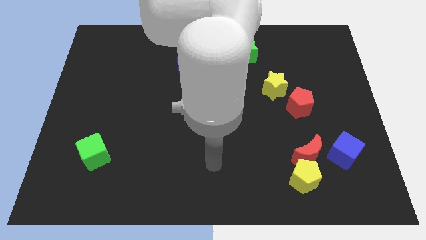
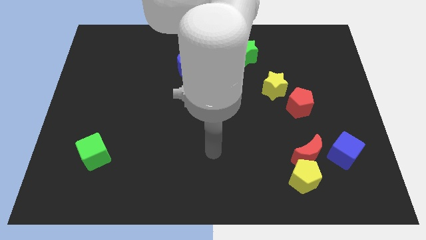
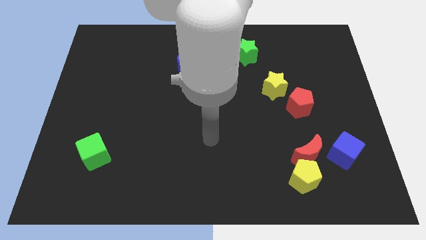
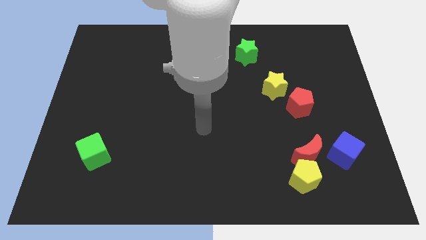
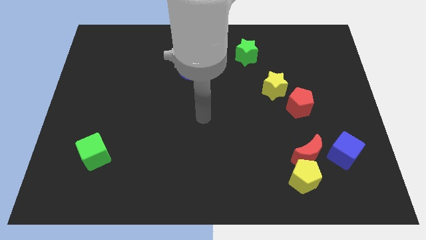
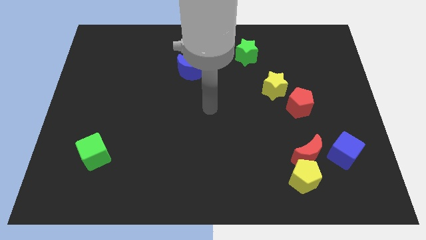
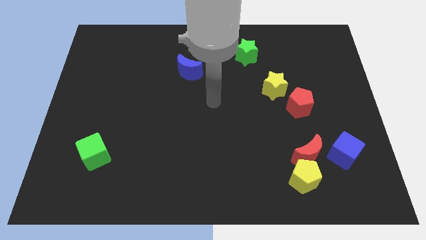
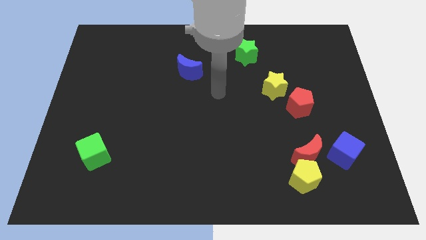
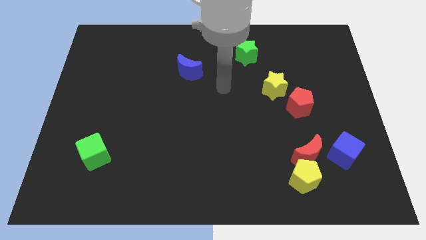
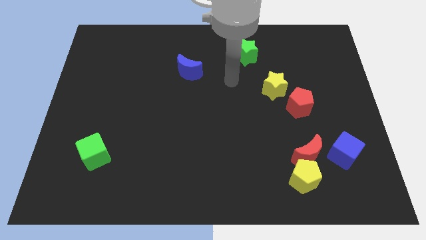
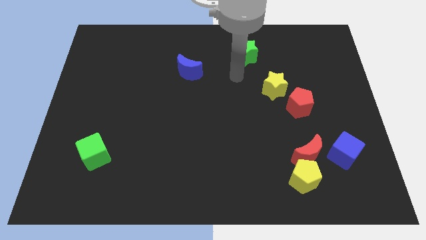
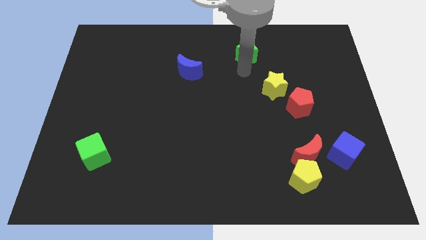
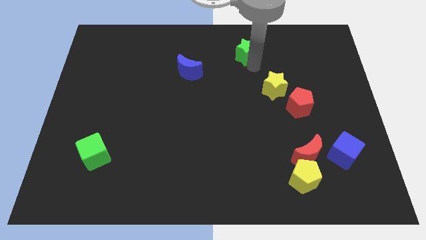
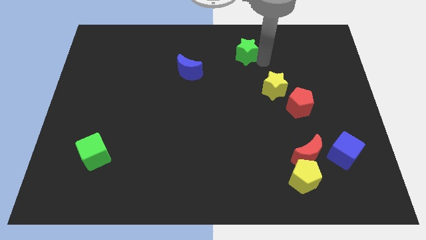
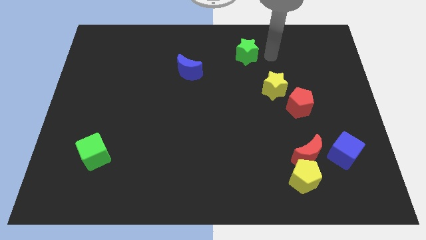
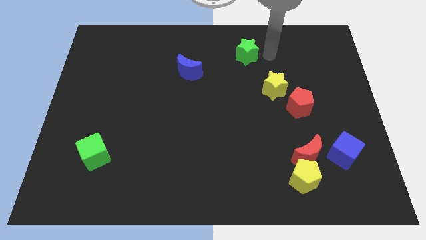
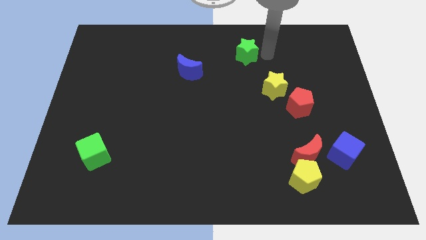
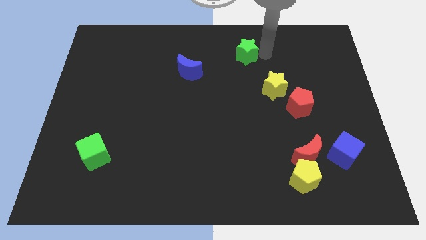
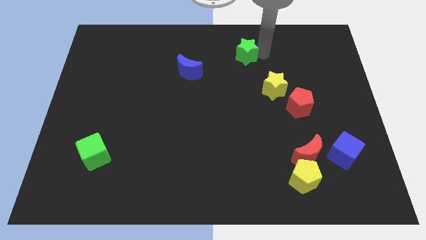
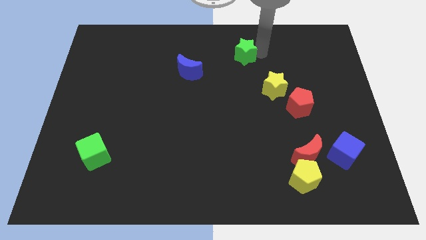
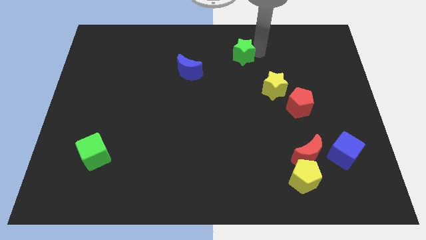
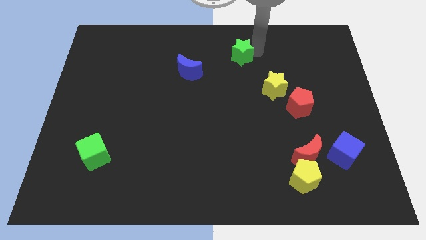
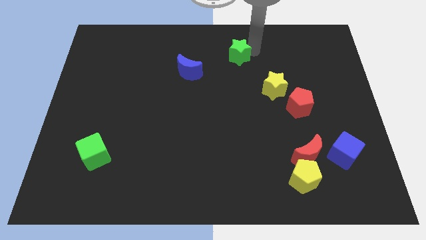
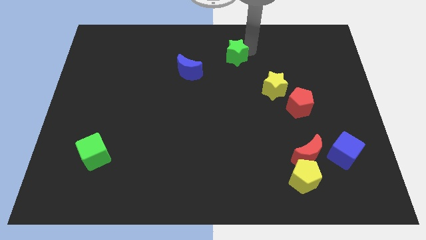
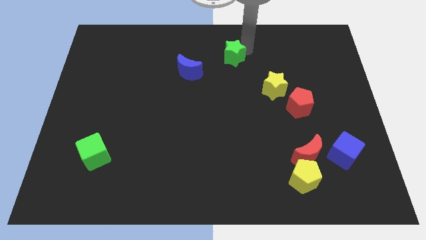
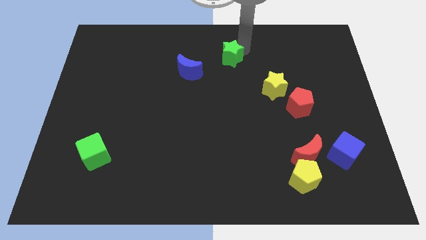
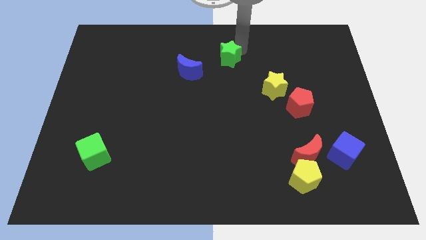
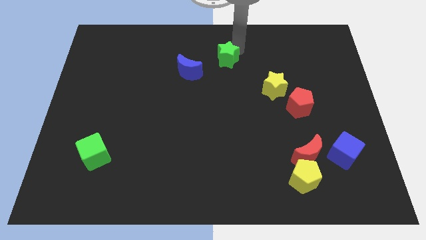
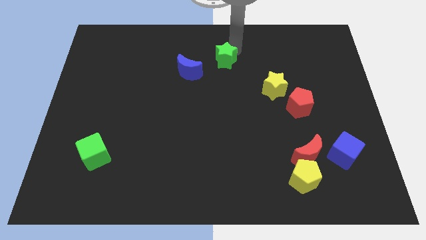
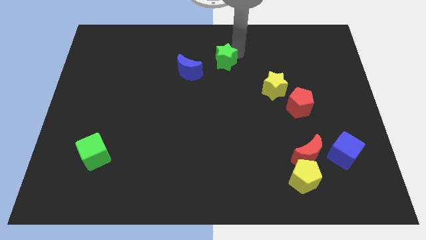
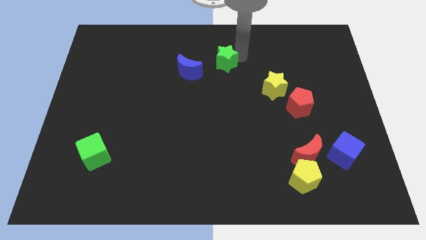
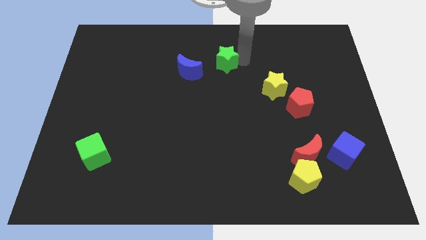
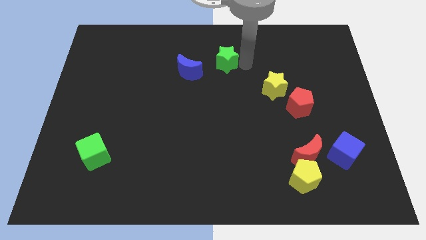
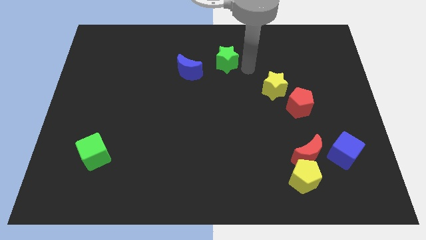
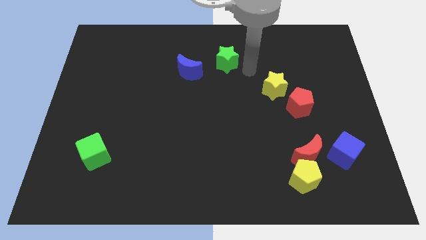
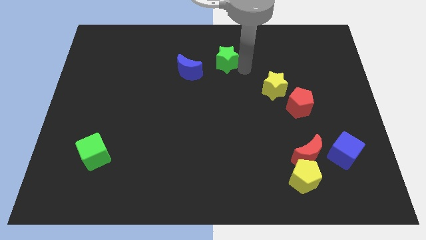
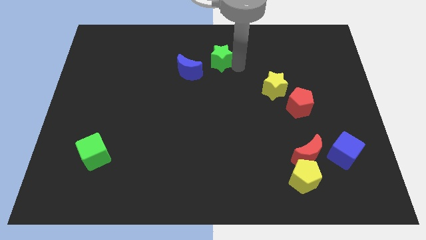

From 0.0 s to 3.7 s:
move the green star a bit to the left

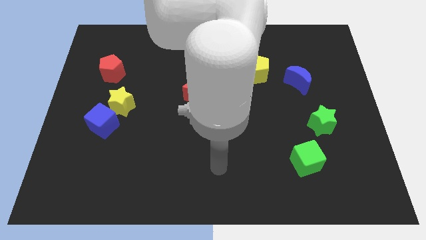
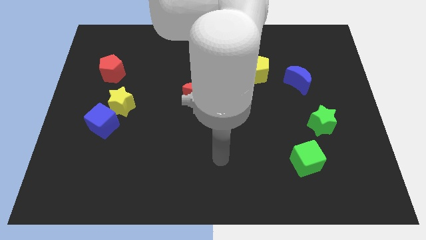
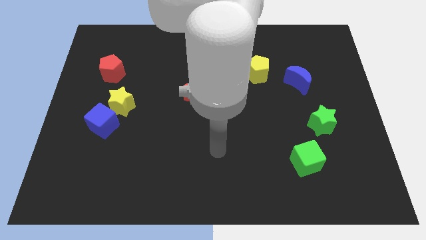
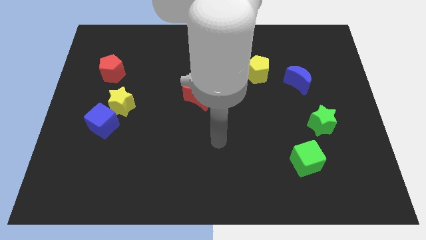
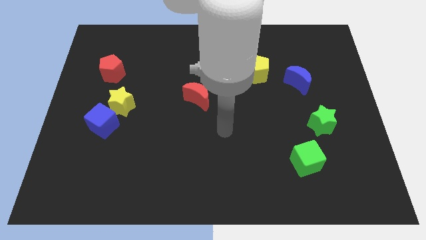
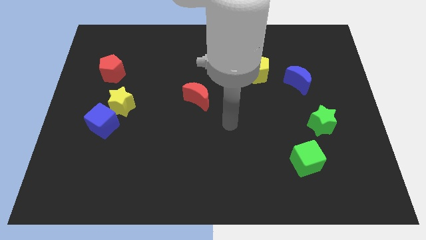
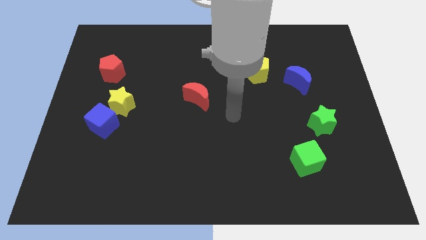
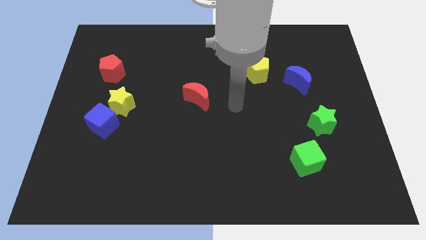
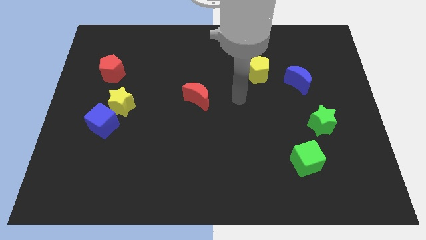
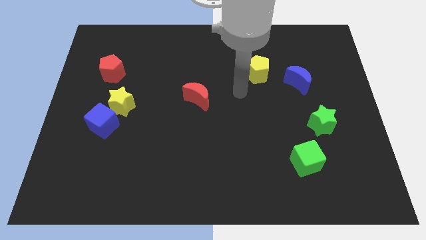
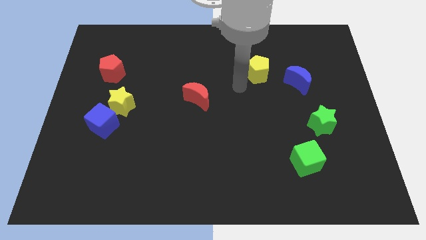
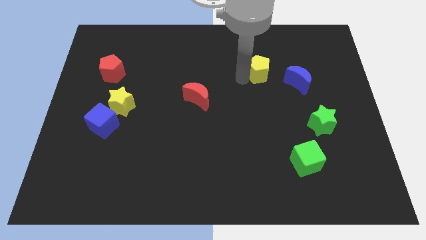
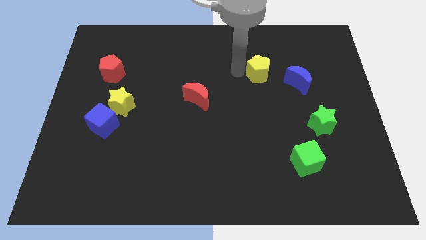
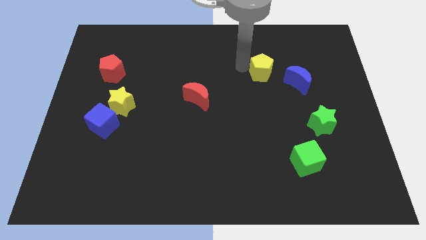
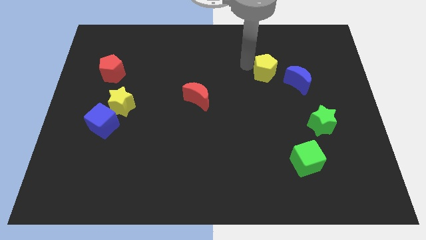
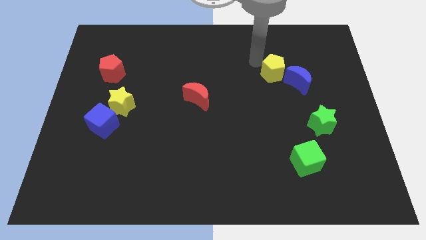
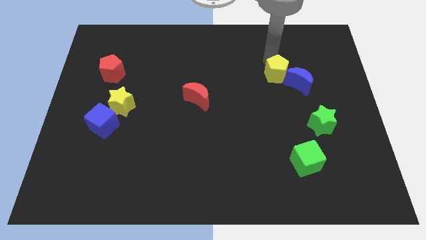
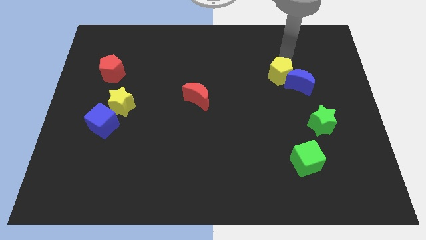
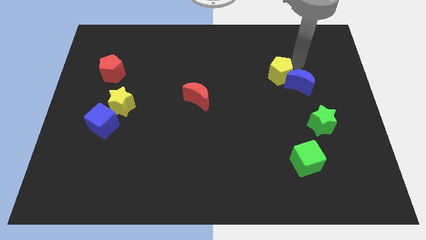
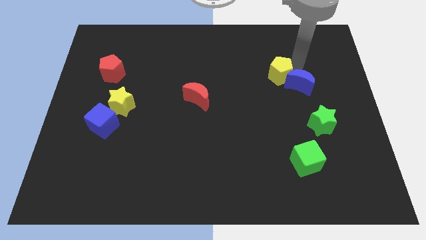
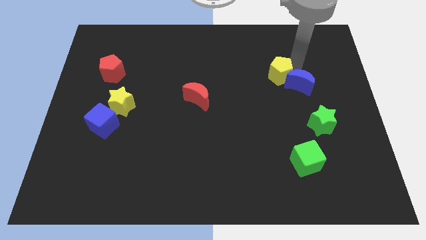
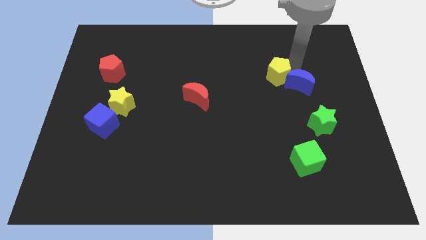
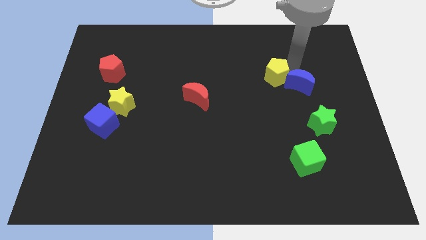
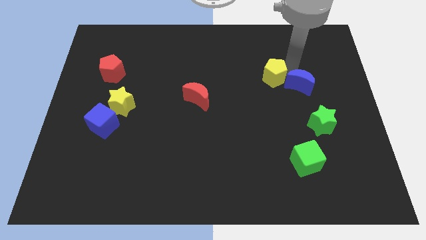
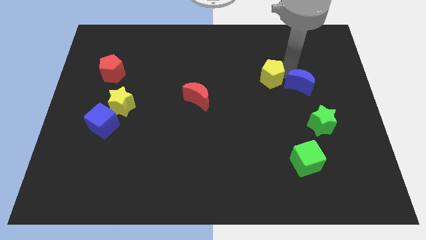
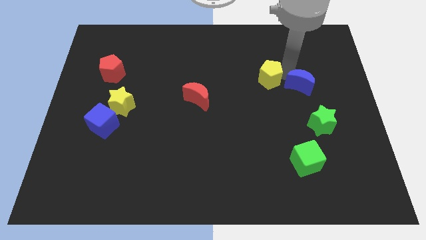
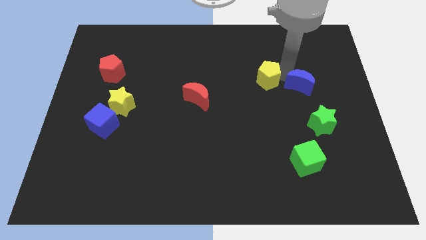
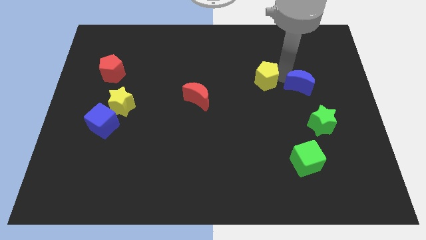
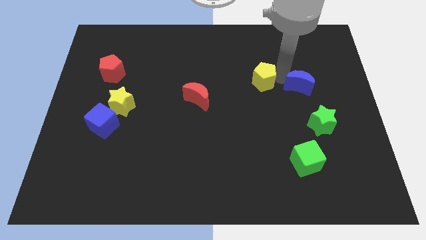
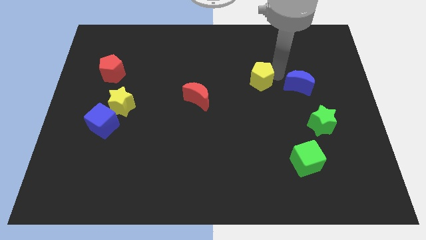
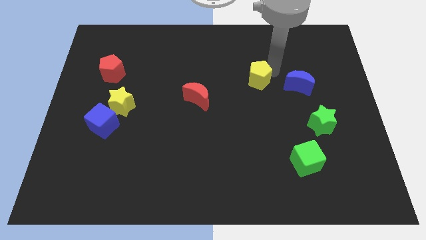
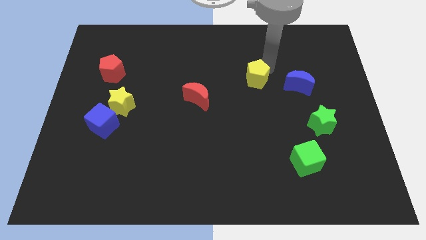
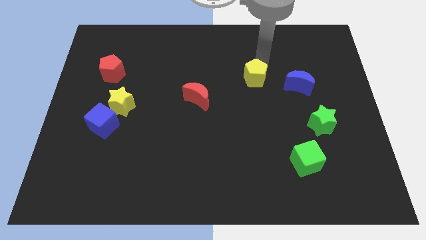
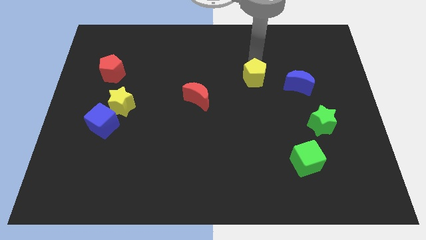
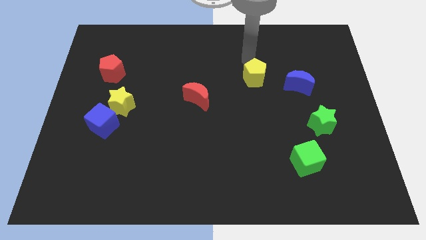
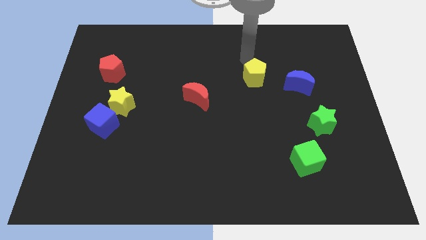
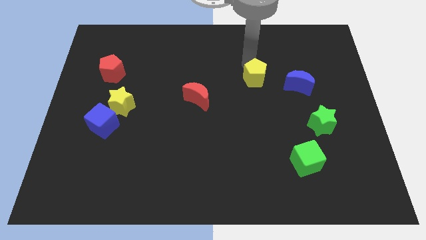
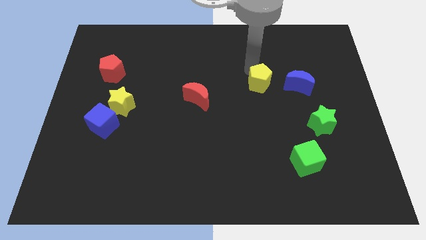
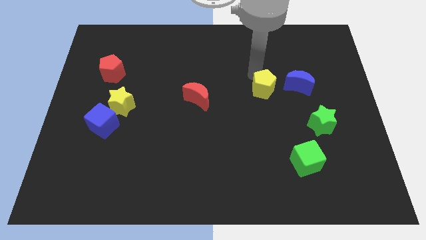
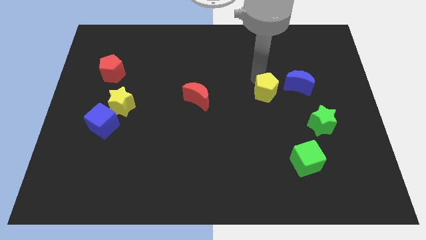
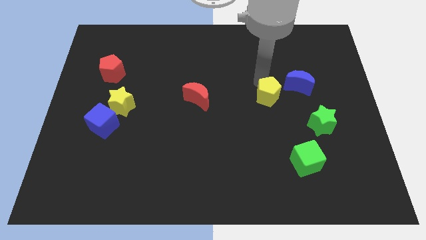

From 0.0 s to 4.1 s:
slide the yellow pentagon slightly downwards
